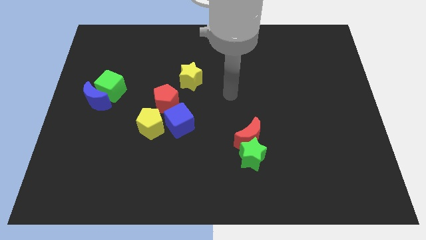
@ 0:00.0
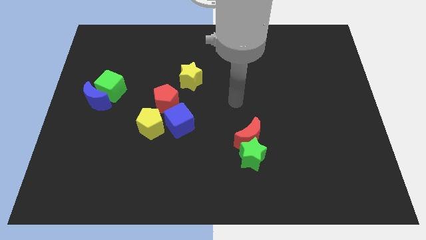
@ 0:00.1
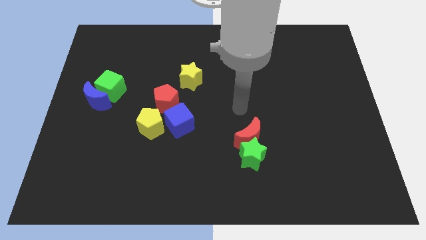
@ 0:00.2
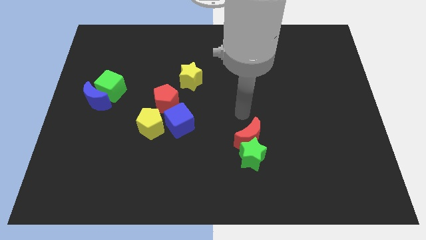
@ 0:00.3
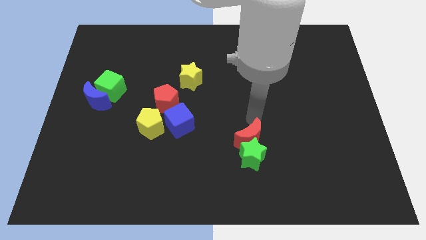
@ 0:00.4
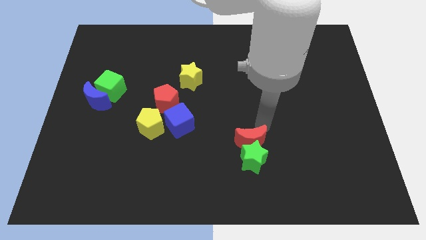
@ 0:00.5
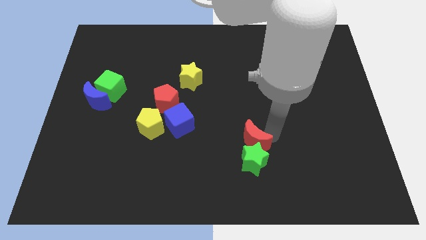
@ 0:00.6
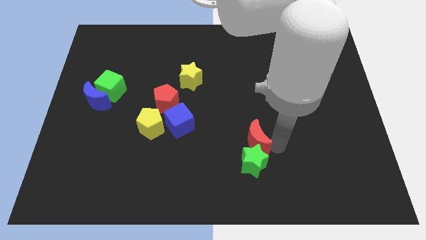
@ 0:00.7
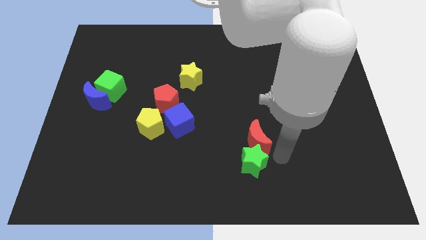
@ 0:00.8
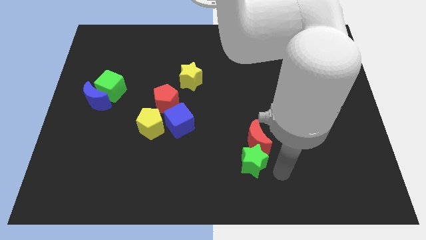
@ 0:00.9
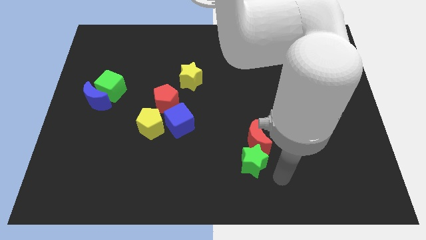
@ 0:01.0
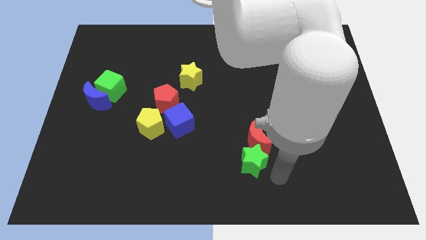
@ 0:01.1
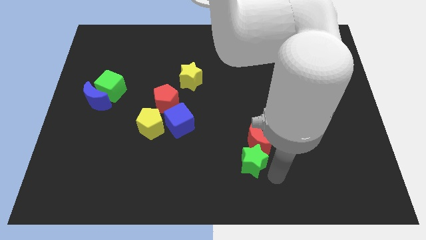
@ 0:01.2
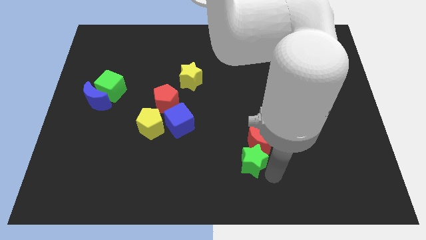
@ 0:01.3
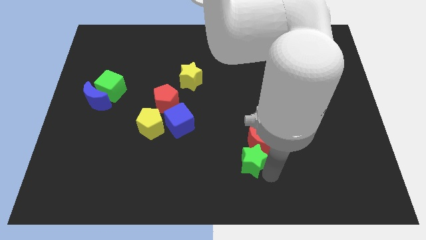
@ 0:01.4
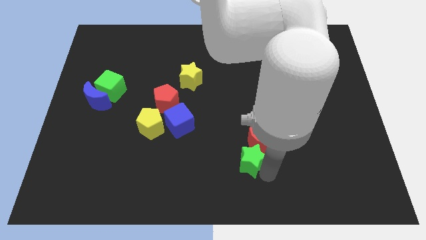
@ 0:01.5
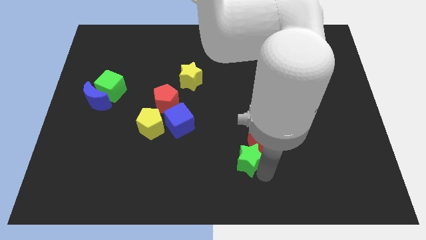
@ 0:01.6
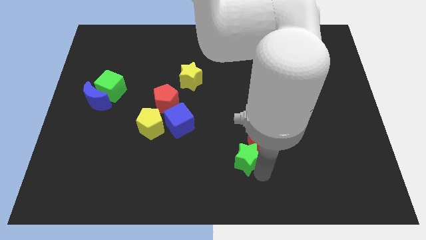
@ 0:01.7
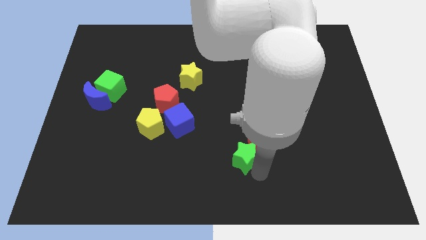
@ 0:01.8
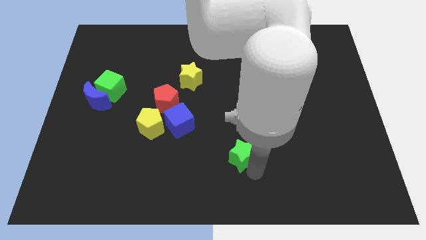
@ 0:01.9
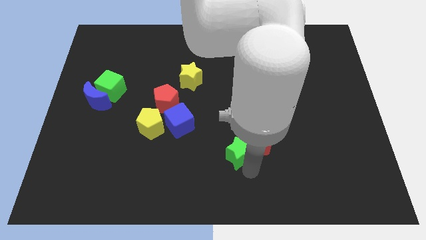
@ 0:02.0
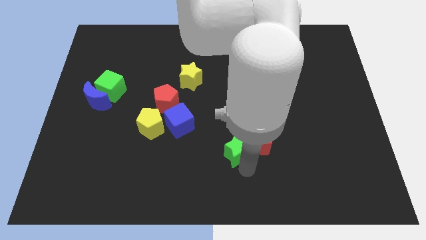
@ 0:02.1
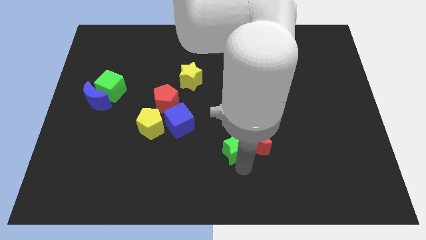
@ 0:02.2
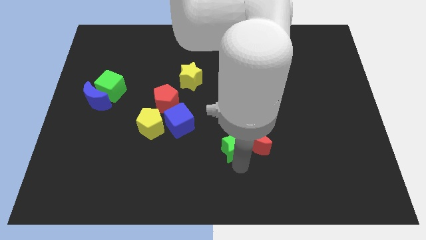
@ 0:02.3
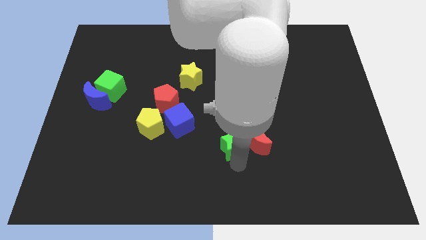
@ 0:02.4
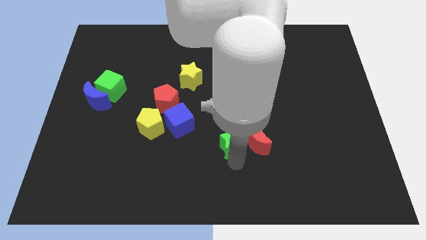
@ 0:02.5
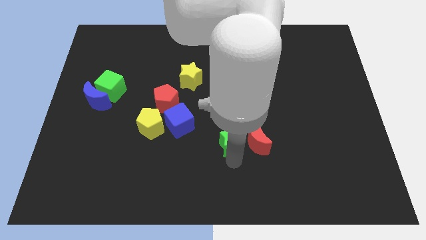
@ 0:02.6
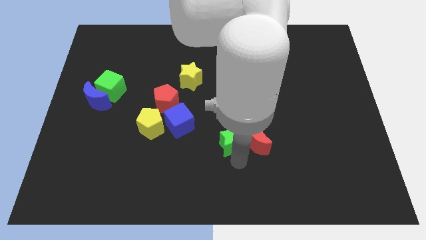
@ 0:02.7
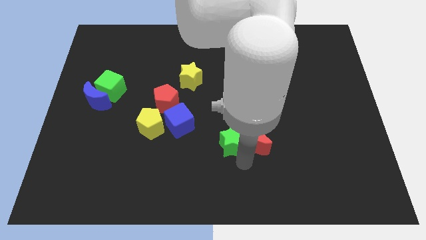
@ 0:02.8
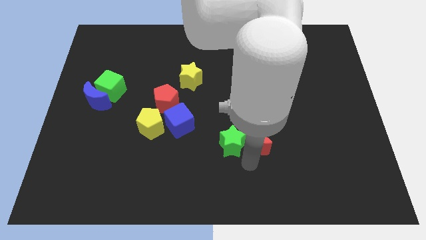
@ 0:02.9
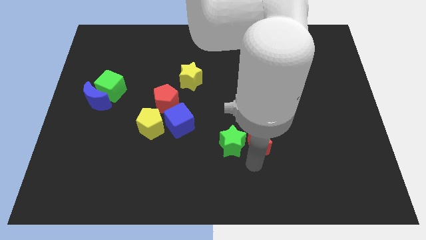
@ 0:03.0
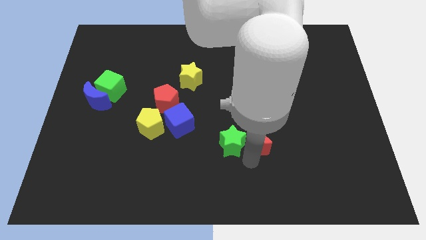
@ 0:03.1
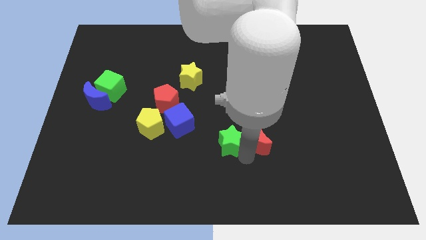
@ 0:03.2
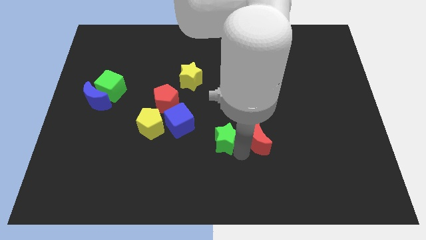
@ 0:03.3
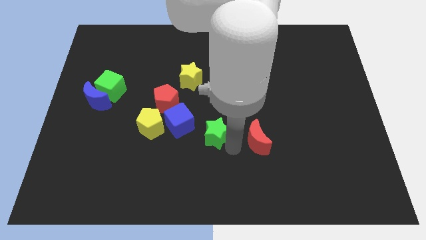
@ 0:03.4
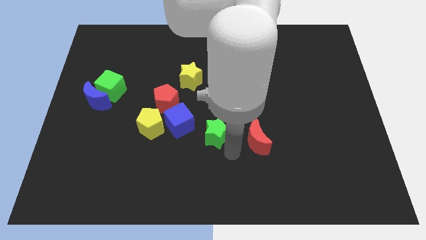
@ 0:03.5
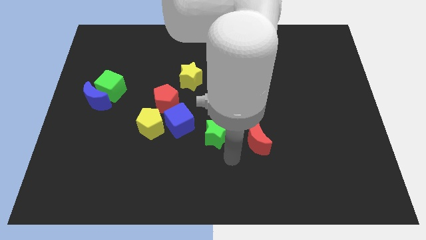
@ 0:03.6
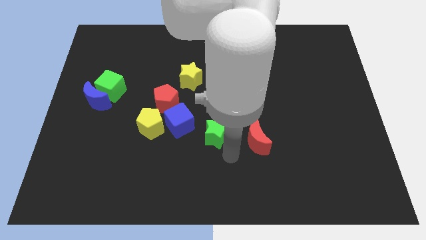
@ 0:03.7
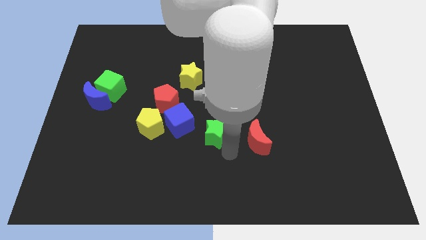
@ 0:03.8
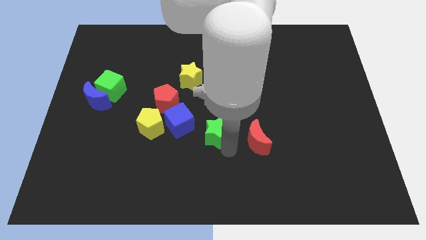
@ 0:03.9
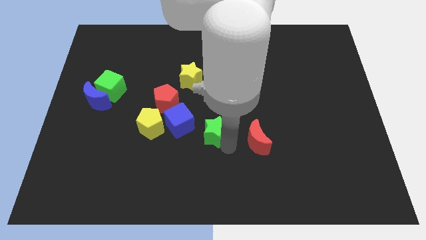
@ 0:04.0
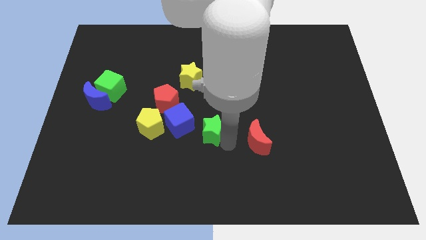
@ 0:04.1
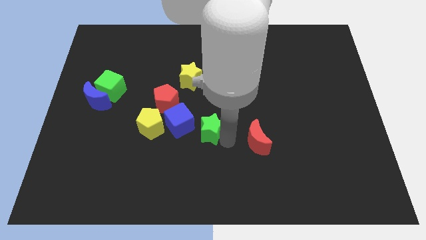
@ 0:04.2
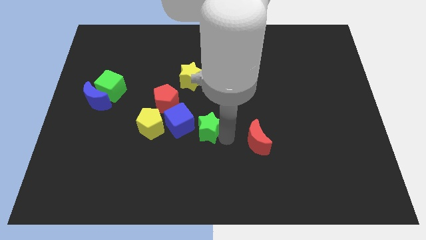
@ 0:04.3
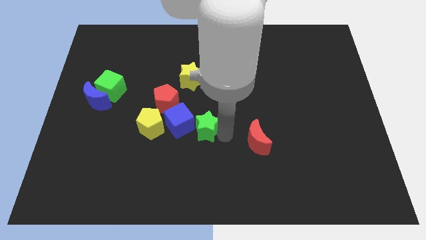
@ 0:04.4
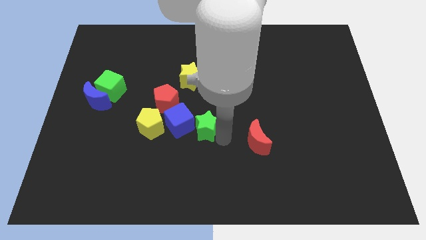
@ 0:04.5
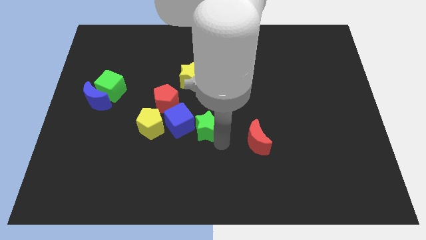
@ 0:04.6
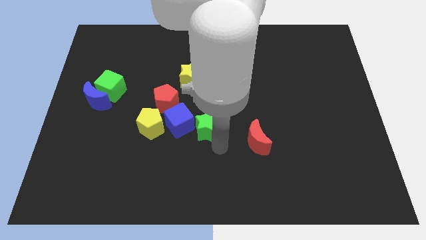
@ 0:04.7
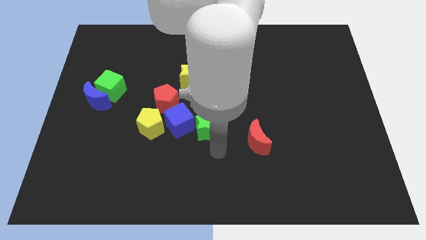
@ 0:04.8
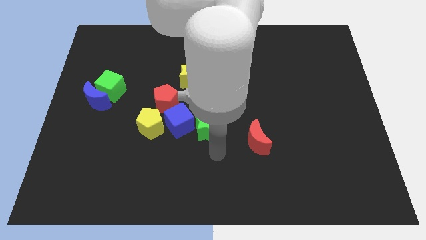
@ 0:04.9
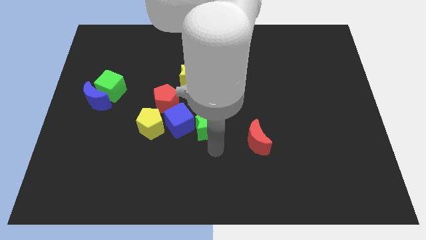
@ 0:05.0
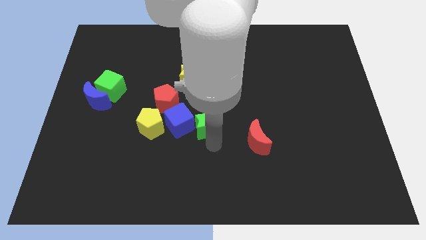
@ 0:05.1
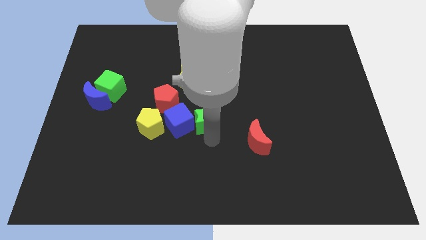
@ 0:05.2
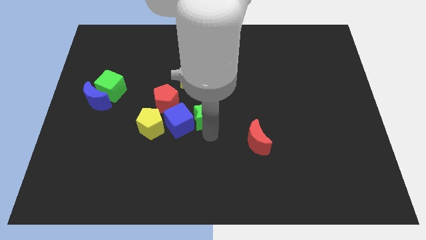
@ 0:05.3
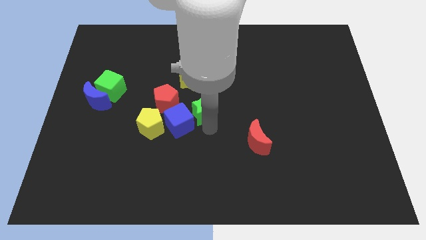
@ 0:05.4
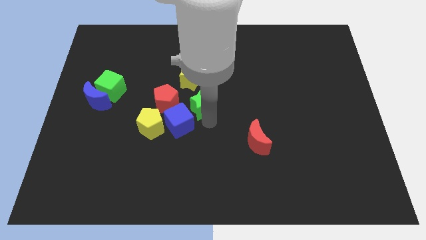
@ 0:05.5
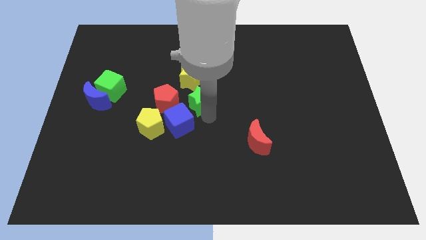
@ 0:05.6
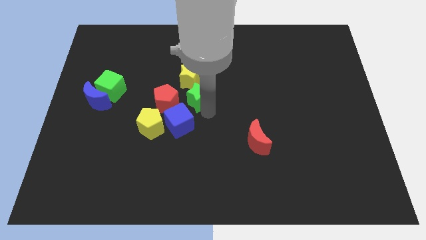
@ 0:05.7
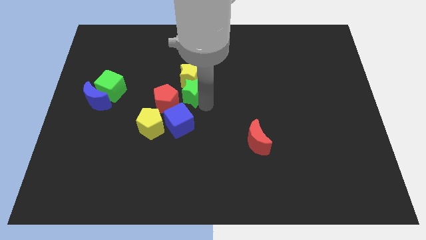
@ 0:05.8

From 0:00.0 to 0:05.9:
push the green star up and left diagonally

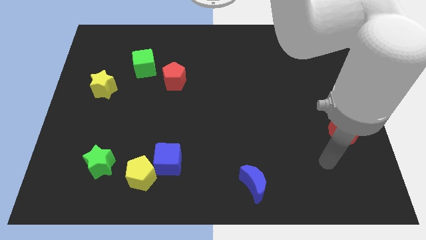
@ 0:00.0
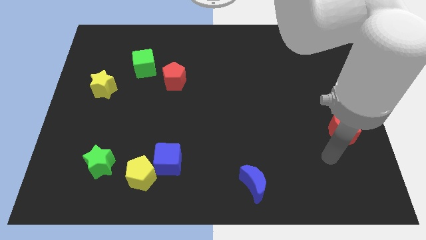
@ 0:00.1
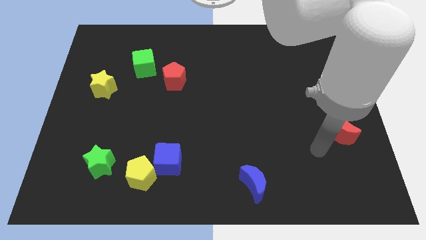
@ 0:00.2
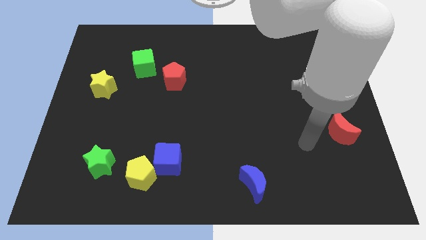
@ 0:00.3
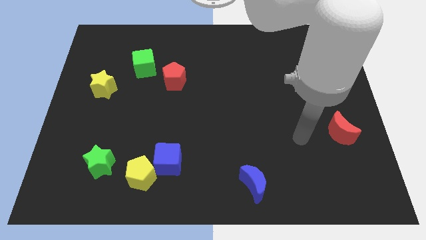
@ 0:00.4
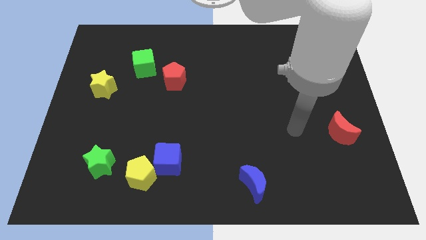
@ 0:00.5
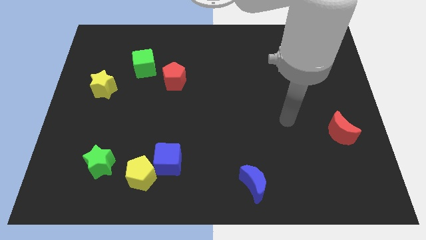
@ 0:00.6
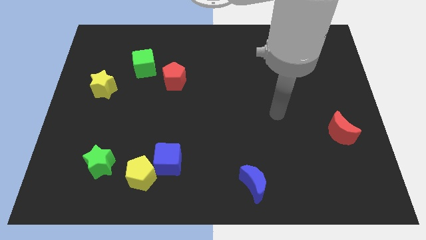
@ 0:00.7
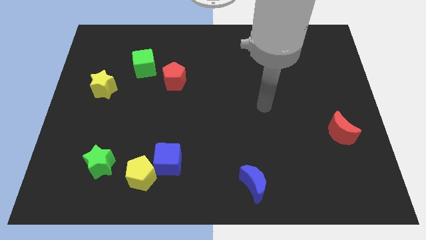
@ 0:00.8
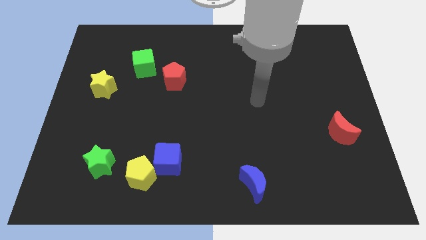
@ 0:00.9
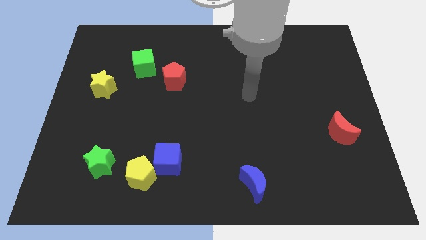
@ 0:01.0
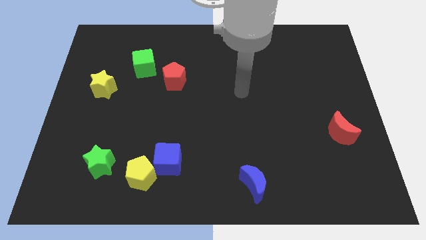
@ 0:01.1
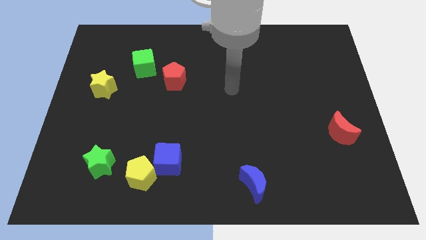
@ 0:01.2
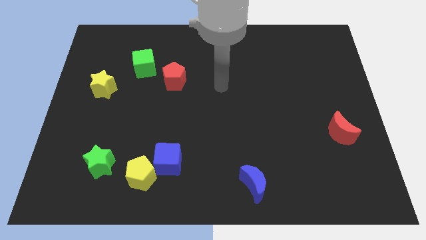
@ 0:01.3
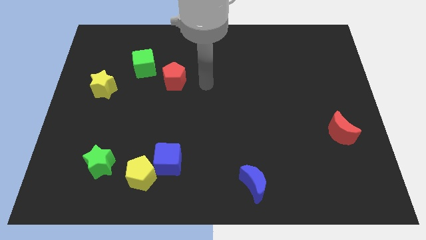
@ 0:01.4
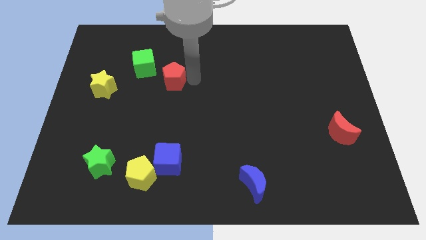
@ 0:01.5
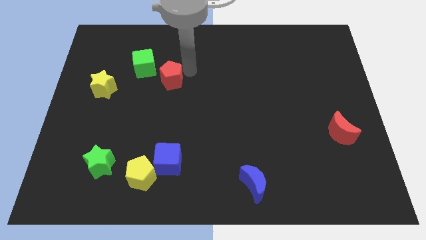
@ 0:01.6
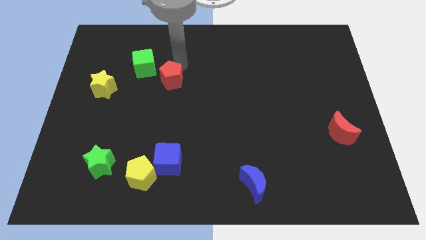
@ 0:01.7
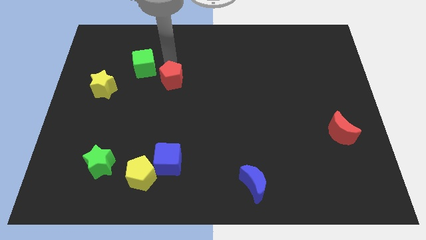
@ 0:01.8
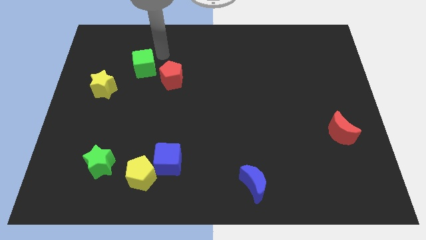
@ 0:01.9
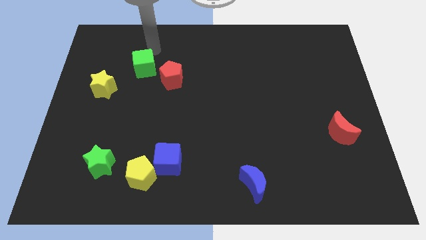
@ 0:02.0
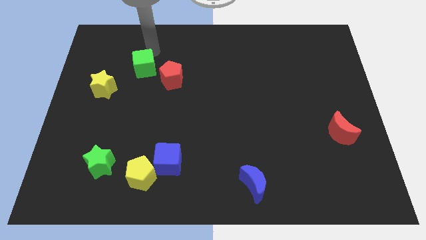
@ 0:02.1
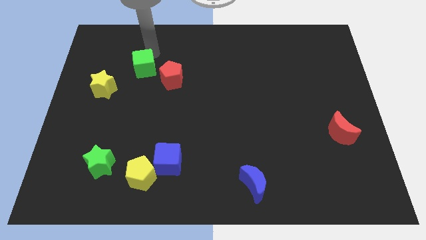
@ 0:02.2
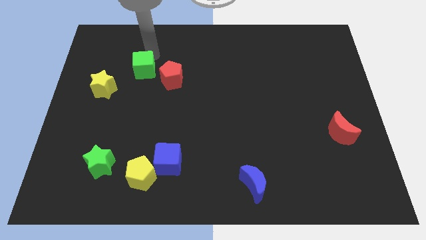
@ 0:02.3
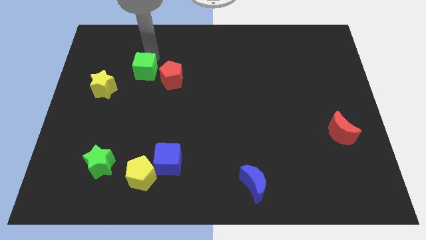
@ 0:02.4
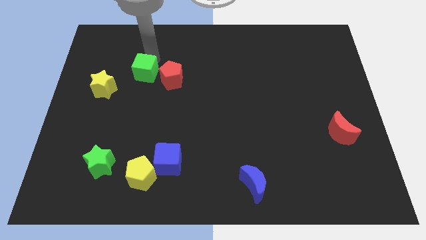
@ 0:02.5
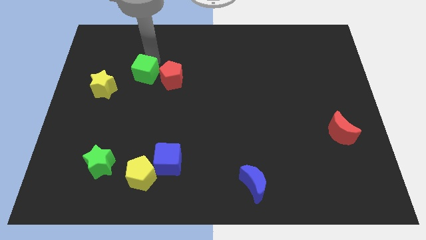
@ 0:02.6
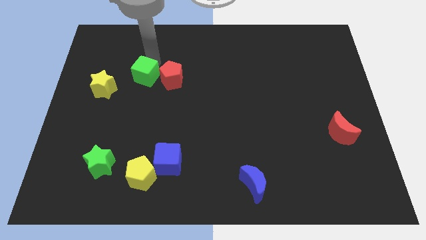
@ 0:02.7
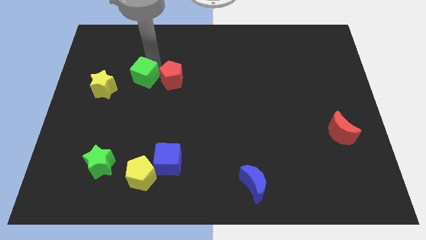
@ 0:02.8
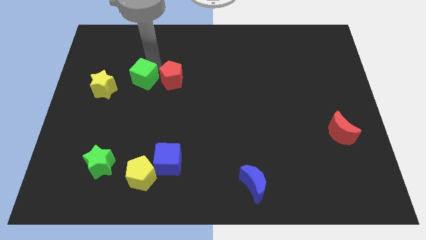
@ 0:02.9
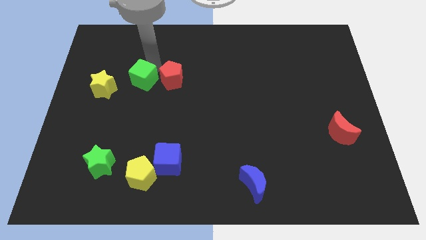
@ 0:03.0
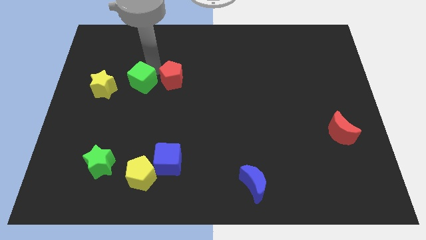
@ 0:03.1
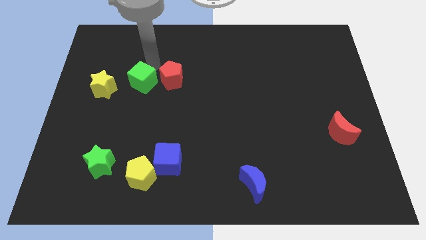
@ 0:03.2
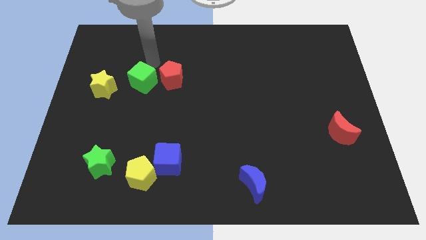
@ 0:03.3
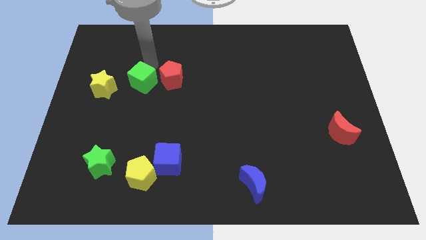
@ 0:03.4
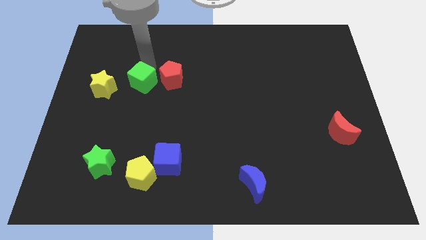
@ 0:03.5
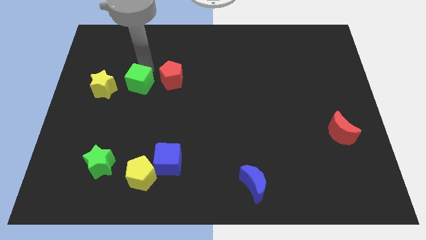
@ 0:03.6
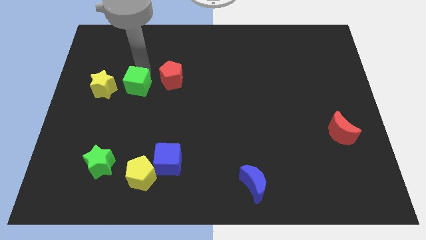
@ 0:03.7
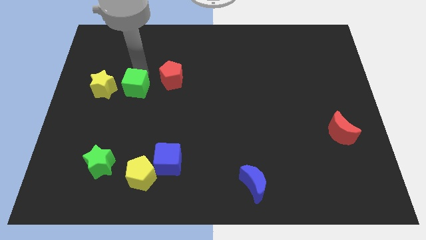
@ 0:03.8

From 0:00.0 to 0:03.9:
slide the green cube down a bit
